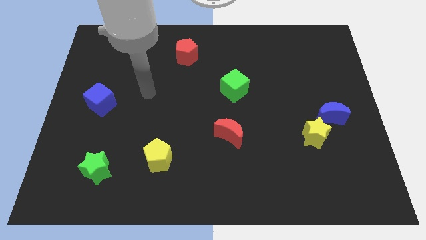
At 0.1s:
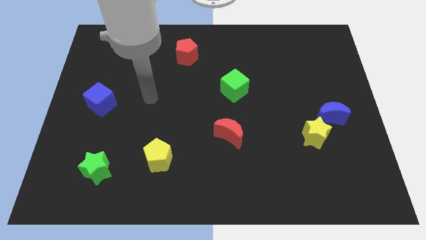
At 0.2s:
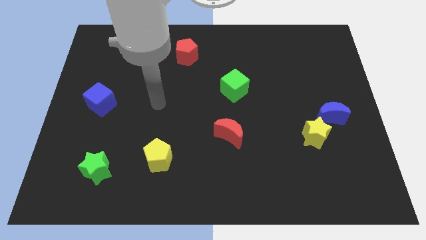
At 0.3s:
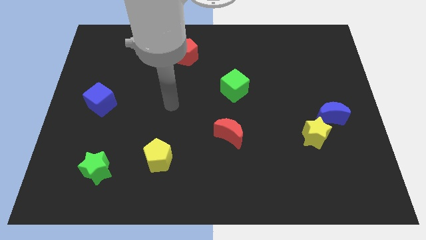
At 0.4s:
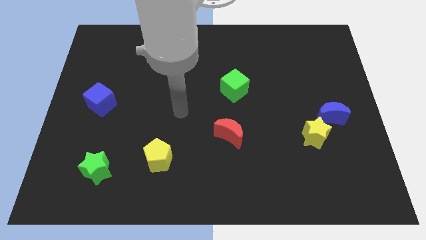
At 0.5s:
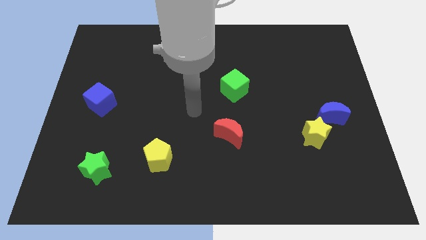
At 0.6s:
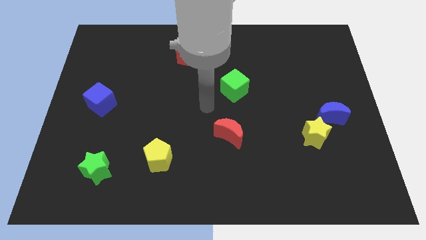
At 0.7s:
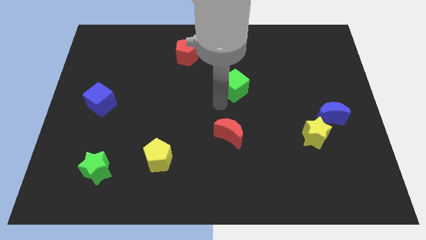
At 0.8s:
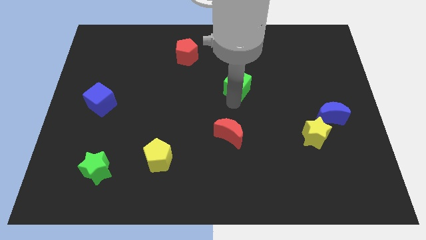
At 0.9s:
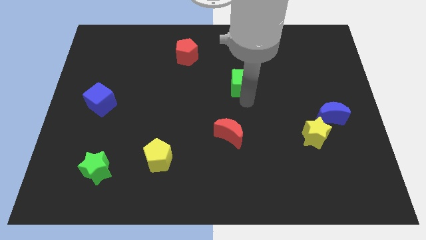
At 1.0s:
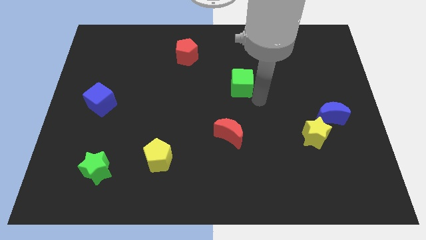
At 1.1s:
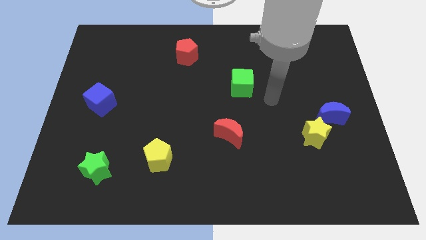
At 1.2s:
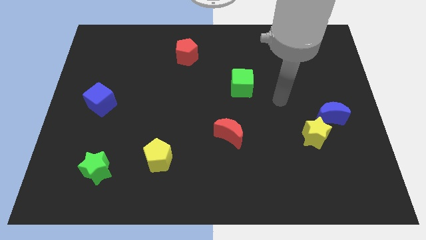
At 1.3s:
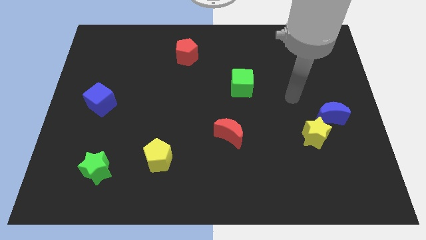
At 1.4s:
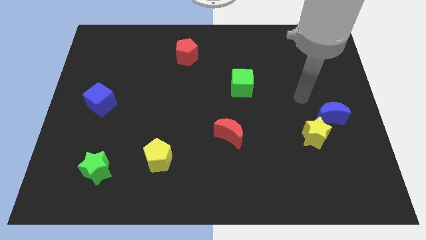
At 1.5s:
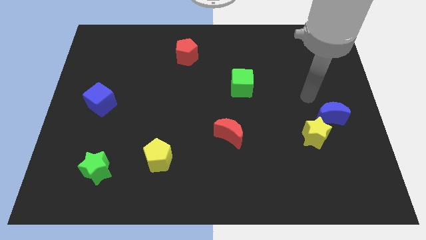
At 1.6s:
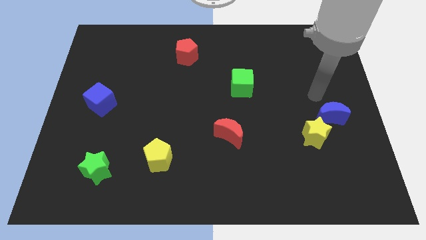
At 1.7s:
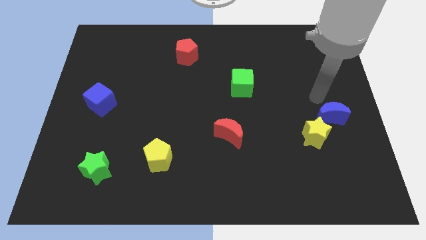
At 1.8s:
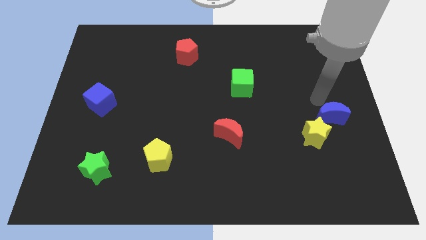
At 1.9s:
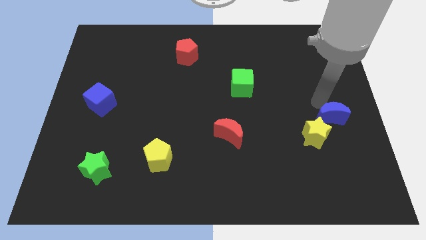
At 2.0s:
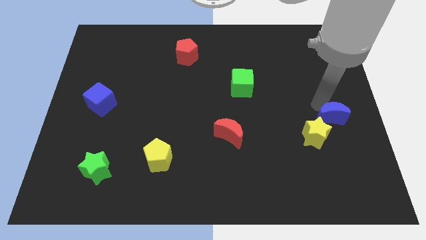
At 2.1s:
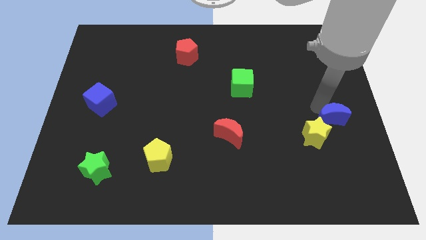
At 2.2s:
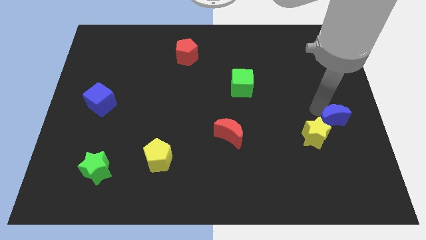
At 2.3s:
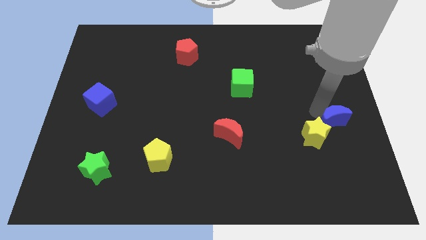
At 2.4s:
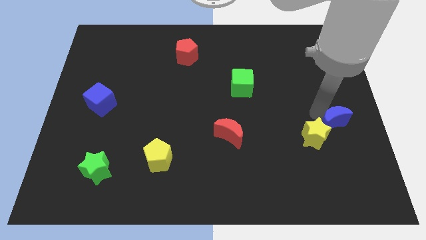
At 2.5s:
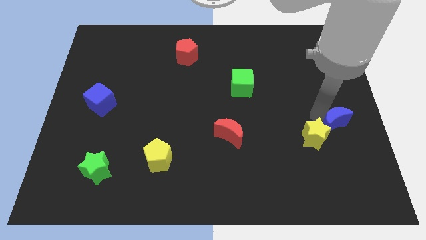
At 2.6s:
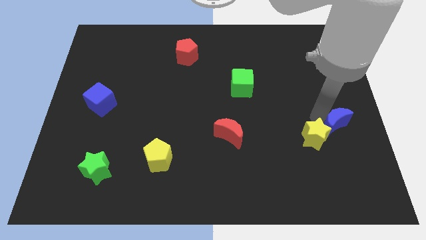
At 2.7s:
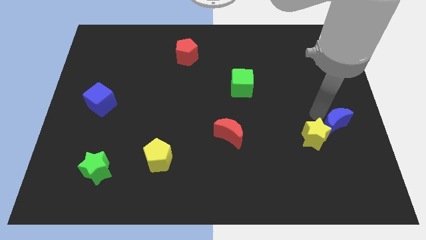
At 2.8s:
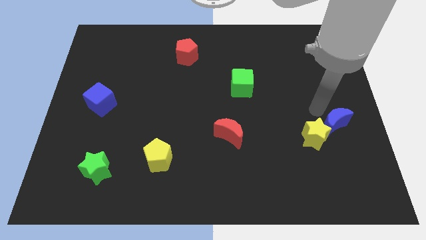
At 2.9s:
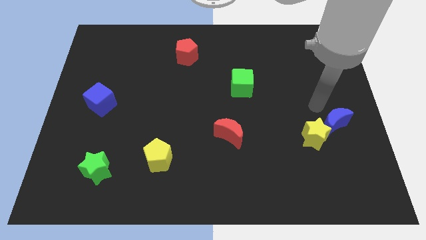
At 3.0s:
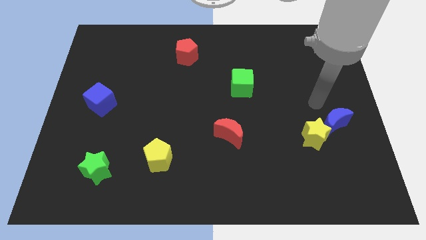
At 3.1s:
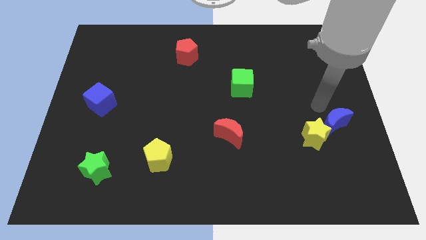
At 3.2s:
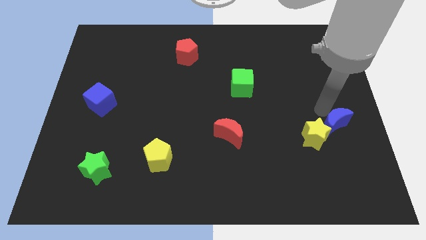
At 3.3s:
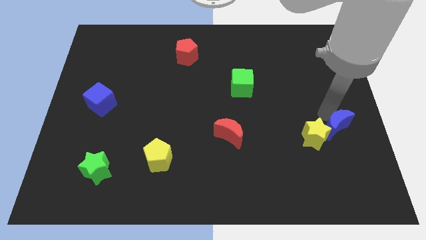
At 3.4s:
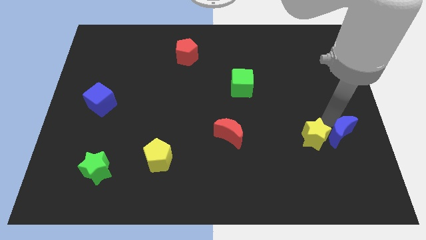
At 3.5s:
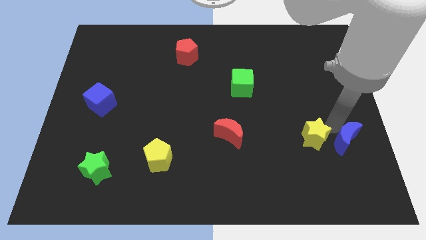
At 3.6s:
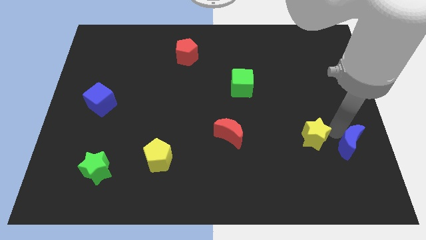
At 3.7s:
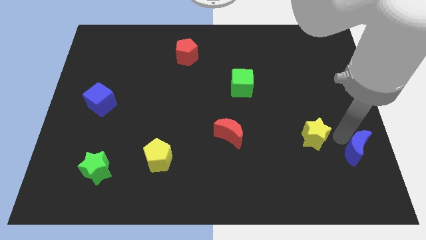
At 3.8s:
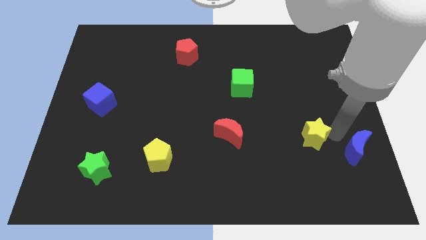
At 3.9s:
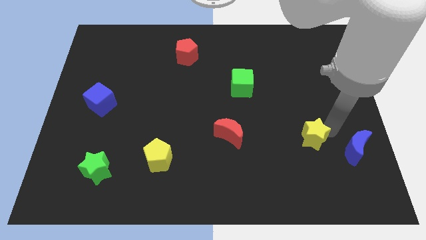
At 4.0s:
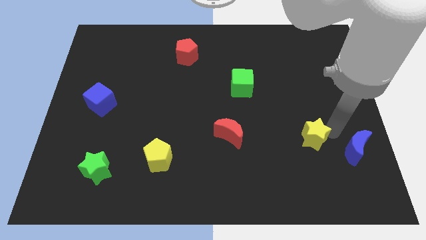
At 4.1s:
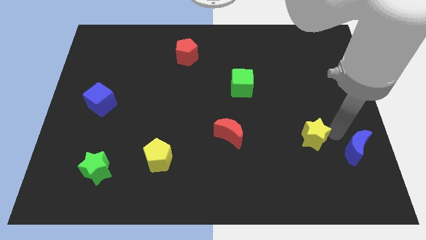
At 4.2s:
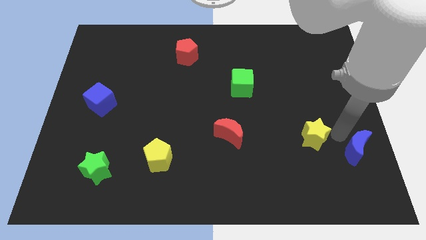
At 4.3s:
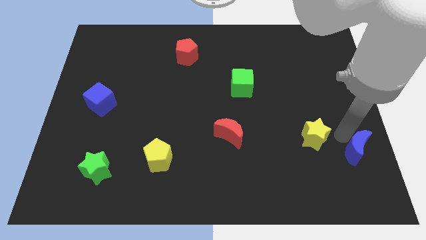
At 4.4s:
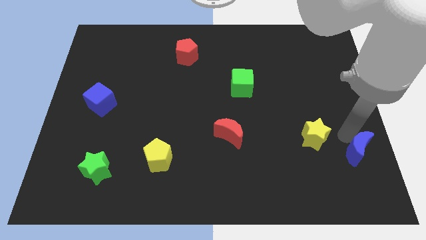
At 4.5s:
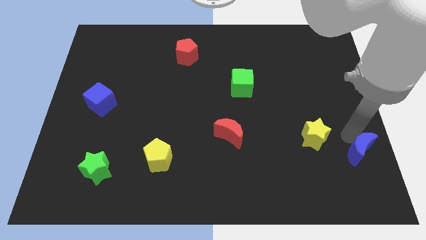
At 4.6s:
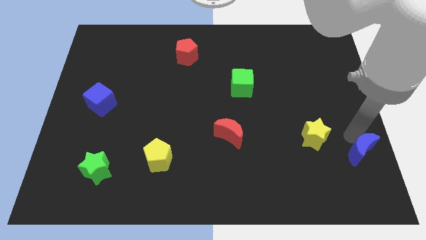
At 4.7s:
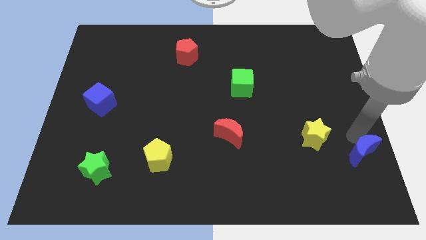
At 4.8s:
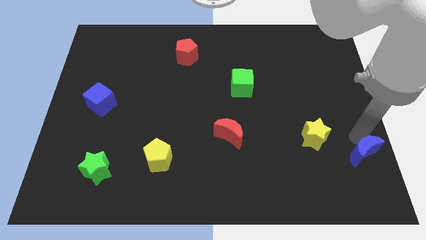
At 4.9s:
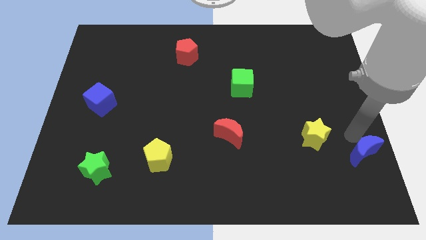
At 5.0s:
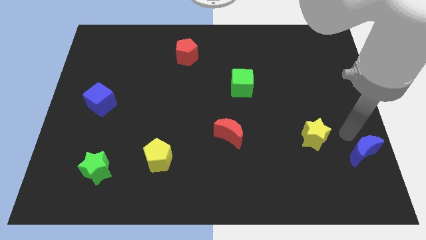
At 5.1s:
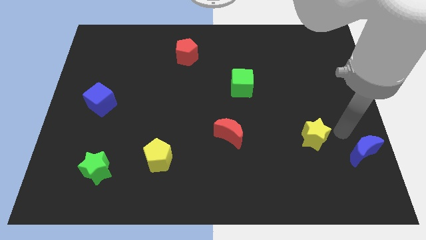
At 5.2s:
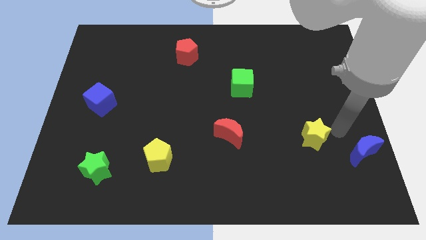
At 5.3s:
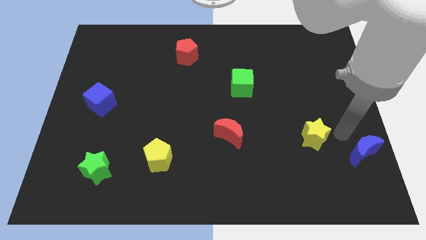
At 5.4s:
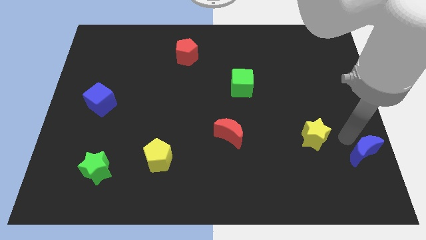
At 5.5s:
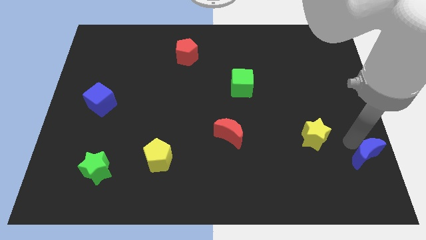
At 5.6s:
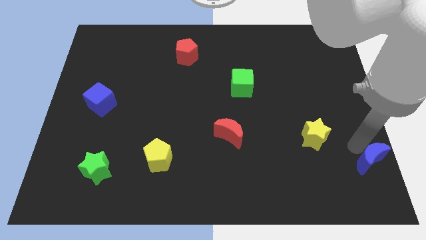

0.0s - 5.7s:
put the blue moon to the bottom right of the board

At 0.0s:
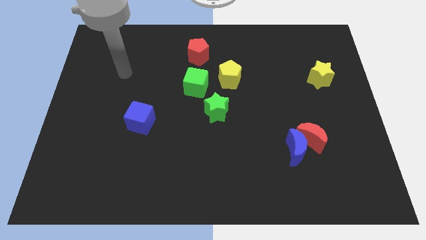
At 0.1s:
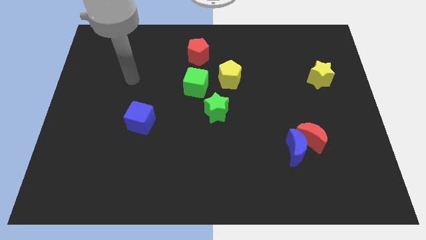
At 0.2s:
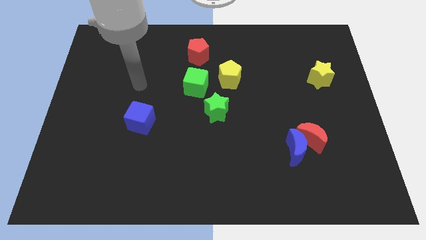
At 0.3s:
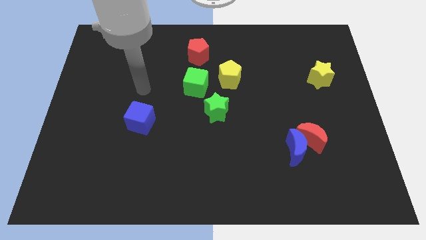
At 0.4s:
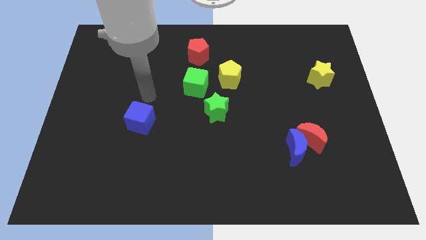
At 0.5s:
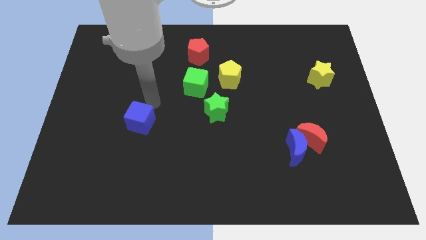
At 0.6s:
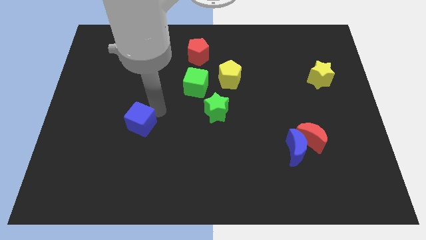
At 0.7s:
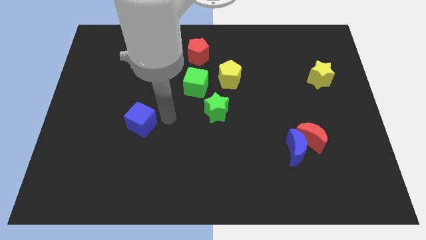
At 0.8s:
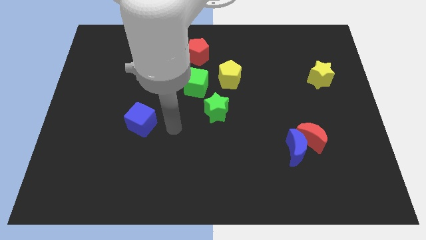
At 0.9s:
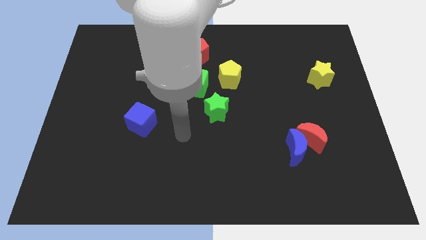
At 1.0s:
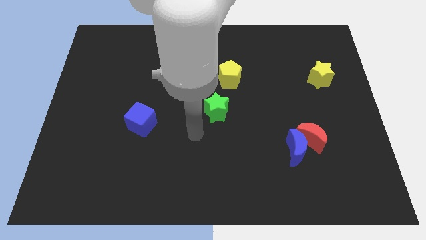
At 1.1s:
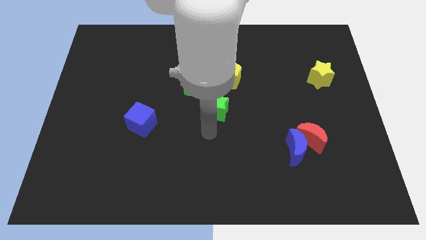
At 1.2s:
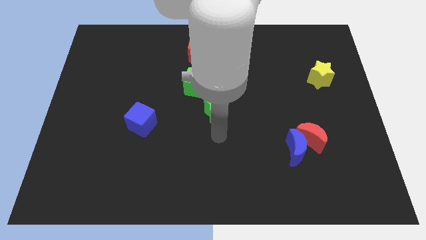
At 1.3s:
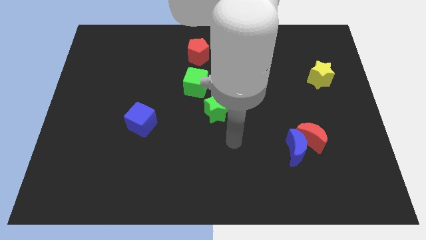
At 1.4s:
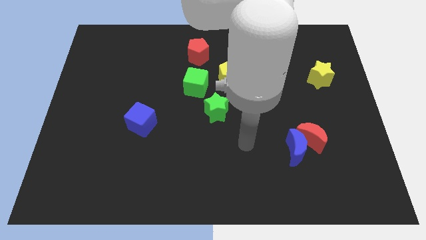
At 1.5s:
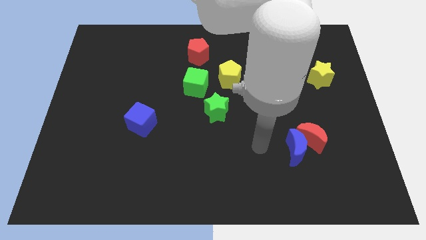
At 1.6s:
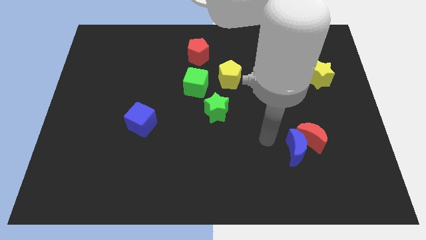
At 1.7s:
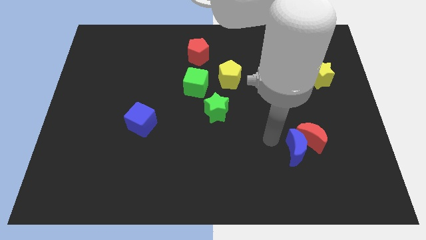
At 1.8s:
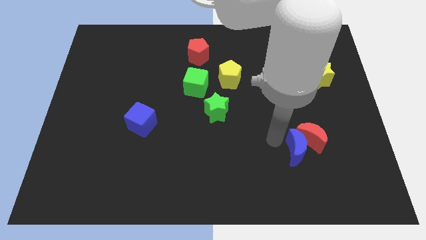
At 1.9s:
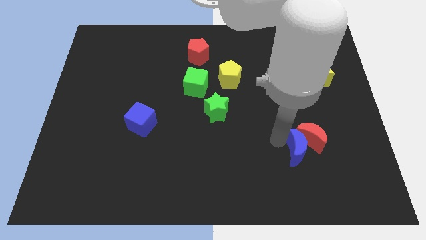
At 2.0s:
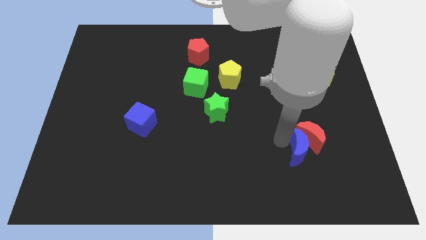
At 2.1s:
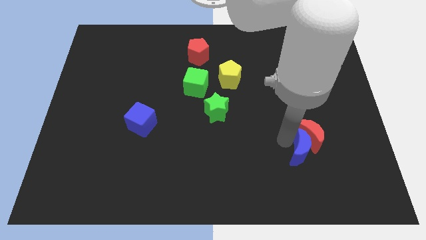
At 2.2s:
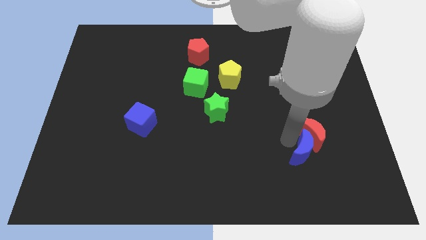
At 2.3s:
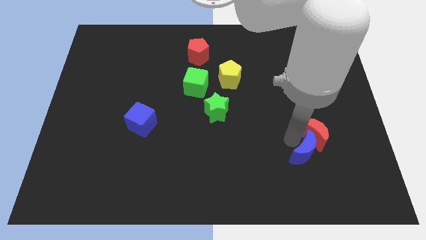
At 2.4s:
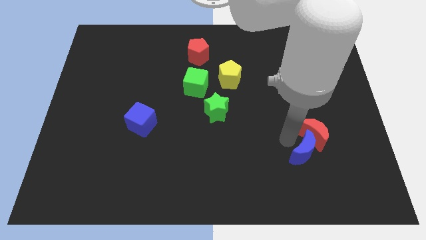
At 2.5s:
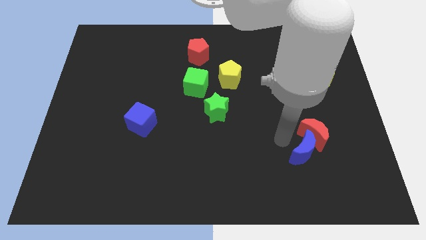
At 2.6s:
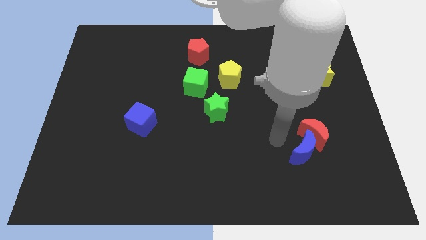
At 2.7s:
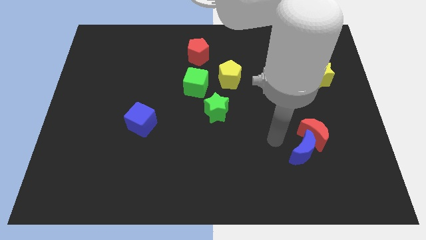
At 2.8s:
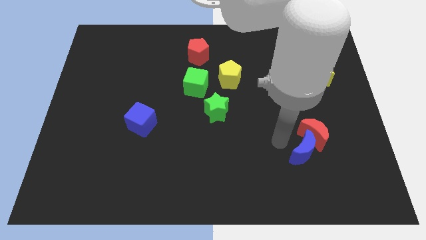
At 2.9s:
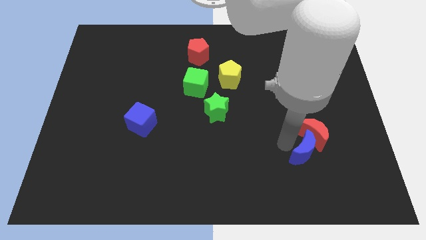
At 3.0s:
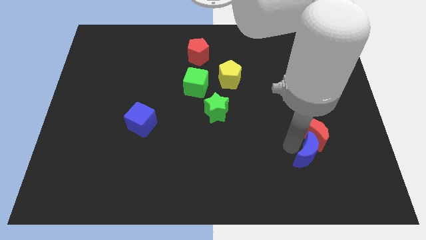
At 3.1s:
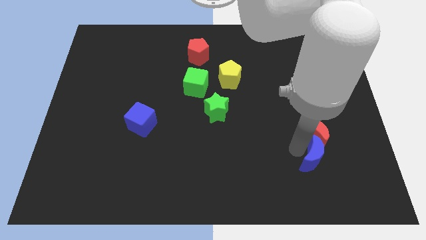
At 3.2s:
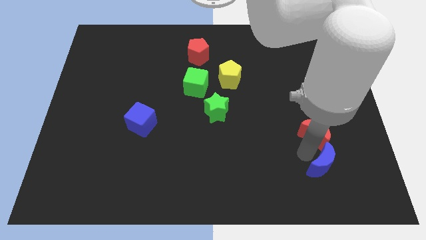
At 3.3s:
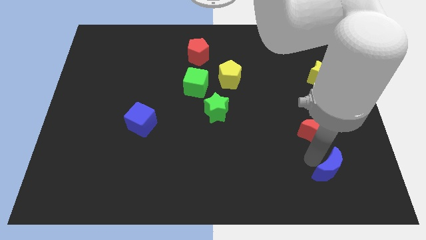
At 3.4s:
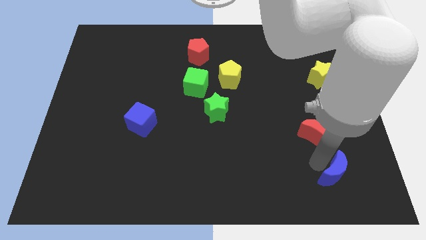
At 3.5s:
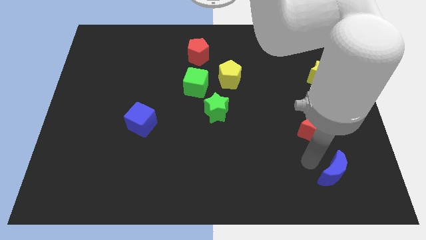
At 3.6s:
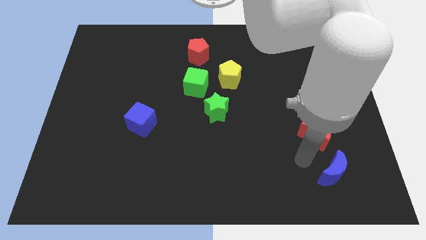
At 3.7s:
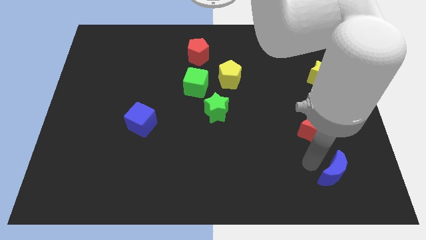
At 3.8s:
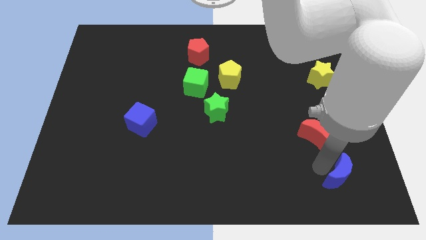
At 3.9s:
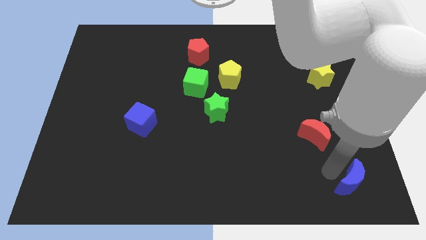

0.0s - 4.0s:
put the blue moon to the bottom right
